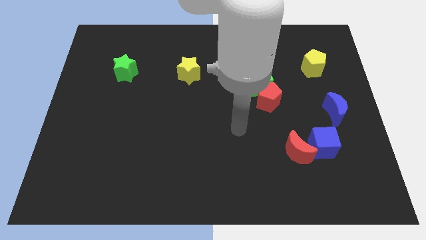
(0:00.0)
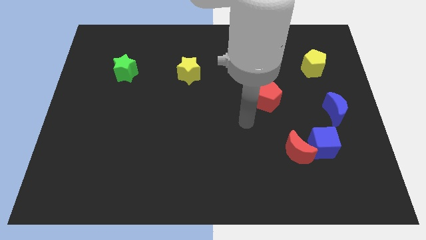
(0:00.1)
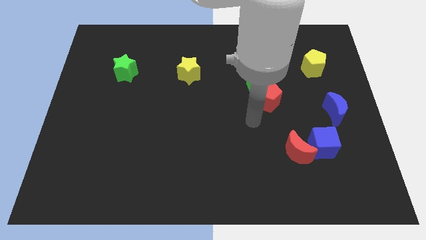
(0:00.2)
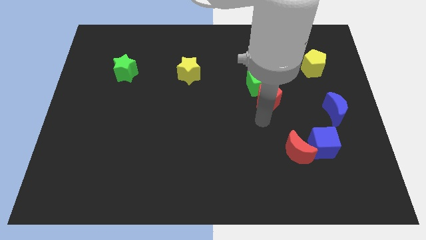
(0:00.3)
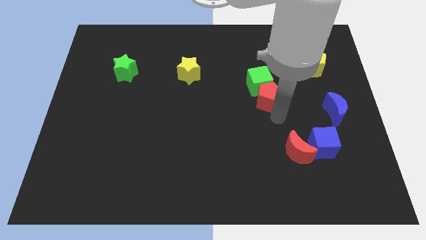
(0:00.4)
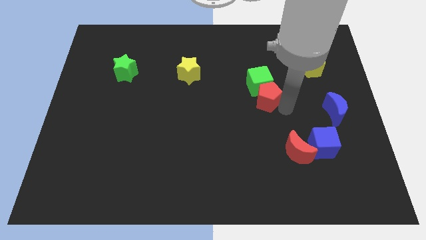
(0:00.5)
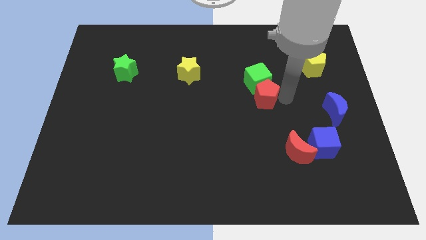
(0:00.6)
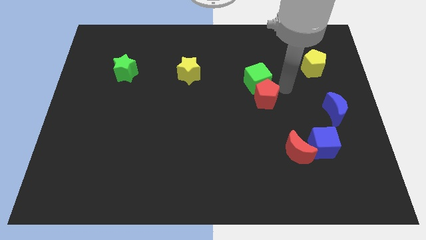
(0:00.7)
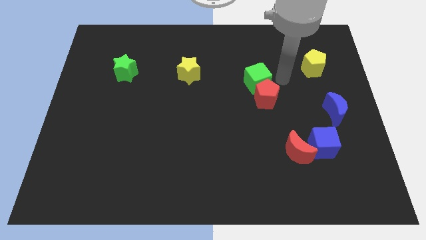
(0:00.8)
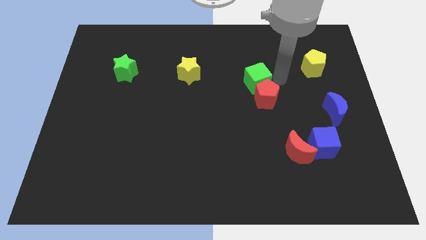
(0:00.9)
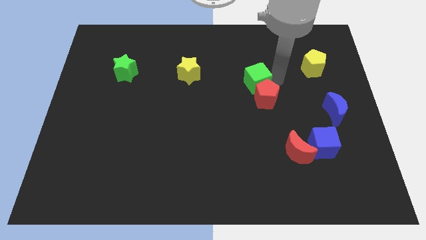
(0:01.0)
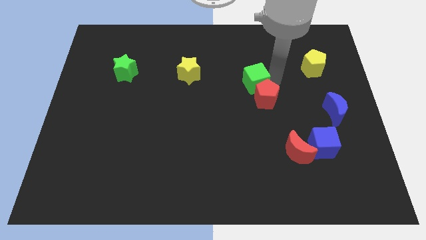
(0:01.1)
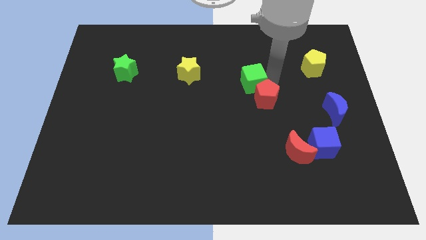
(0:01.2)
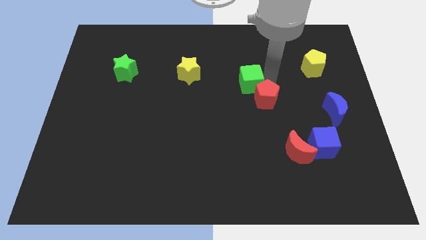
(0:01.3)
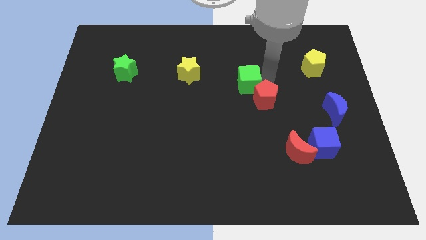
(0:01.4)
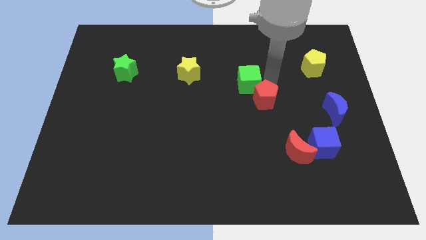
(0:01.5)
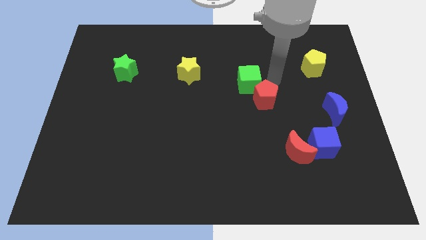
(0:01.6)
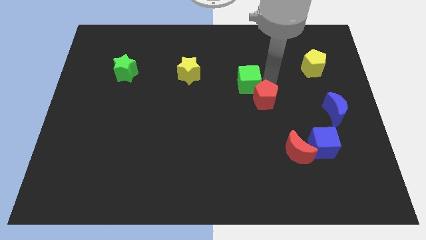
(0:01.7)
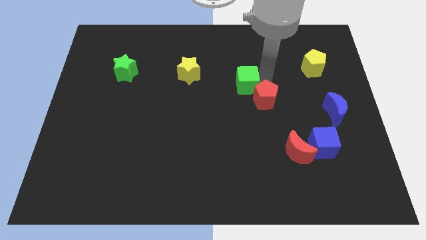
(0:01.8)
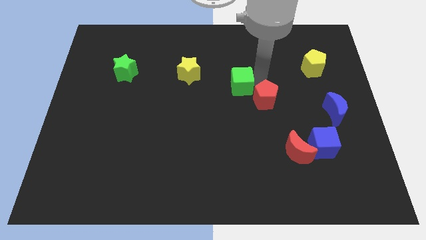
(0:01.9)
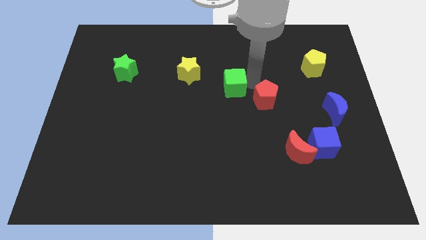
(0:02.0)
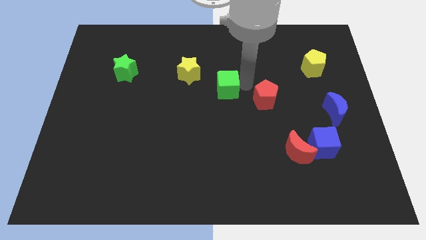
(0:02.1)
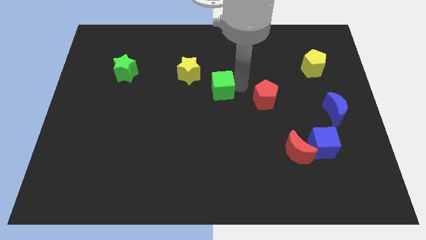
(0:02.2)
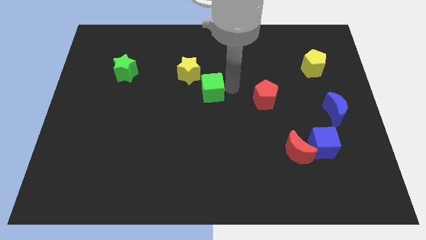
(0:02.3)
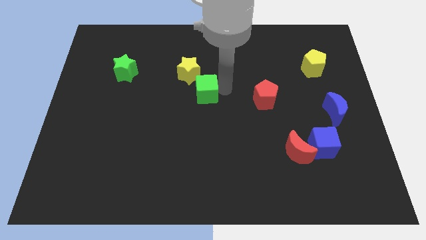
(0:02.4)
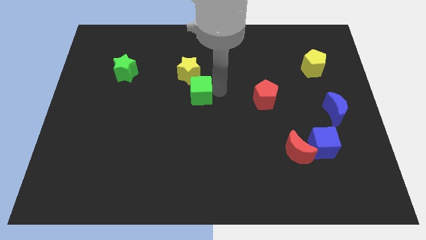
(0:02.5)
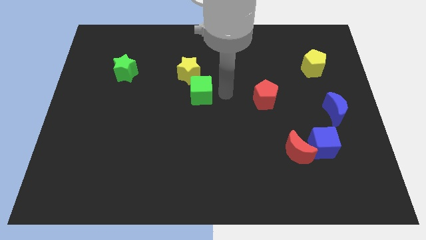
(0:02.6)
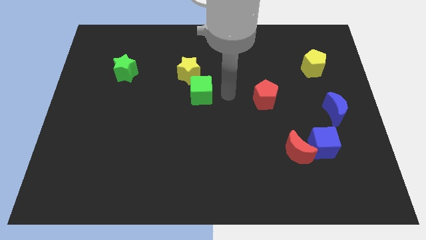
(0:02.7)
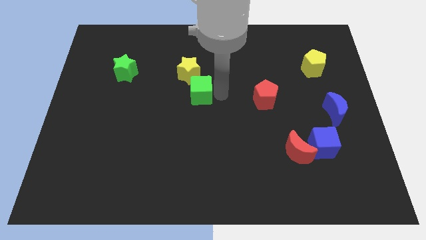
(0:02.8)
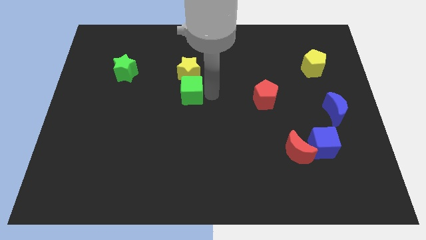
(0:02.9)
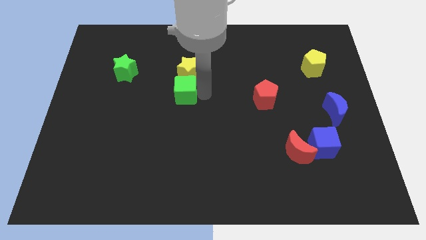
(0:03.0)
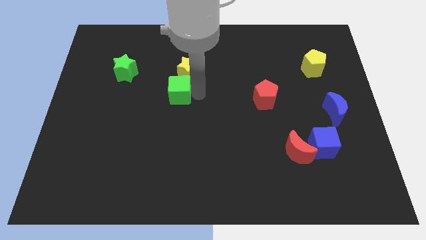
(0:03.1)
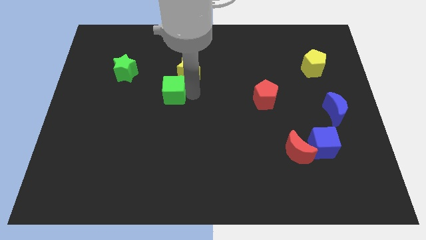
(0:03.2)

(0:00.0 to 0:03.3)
move the green cube to the left

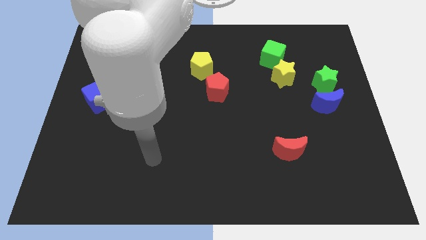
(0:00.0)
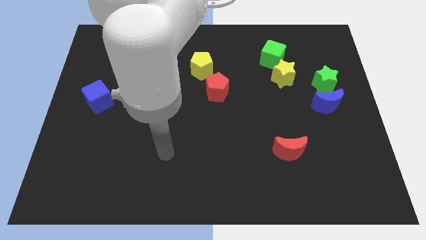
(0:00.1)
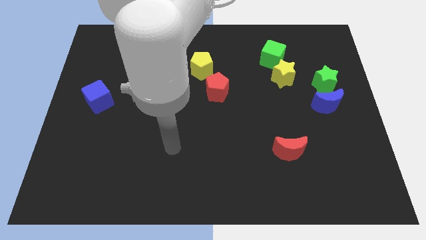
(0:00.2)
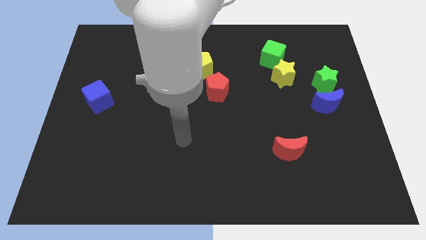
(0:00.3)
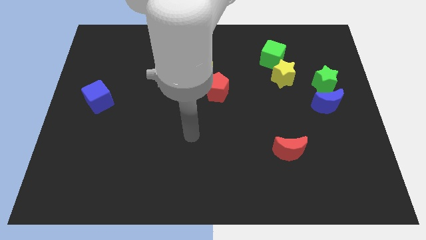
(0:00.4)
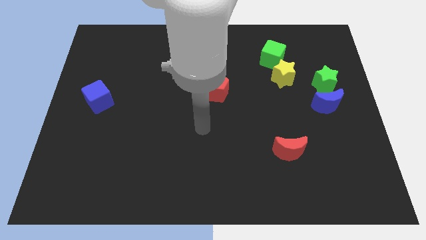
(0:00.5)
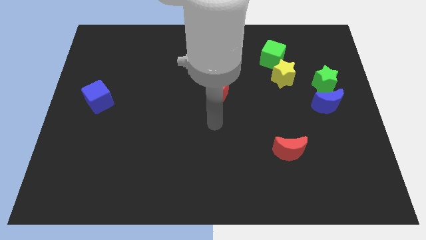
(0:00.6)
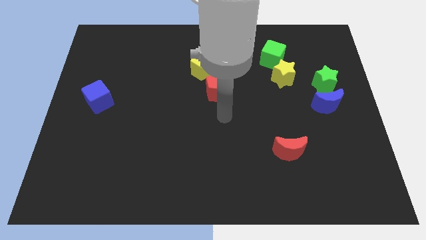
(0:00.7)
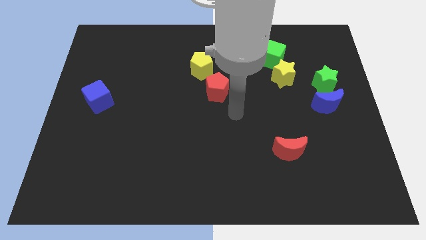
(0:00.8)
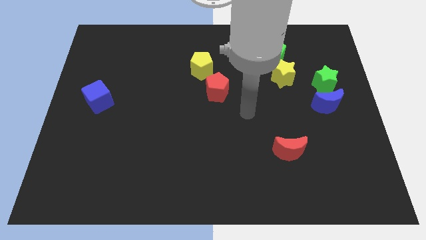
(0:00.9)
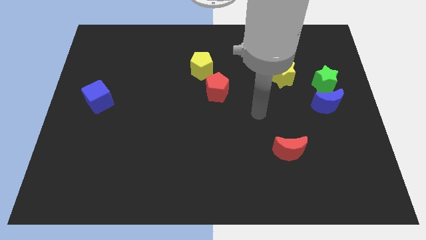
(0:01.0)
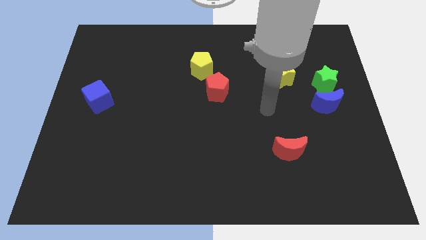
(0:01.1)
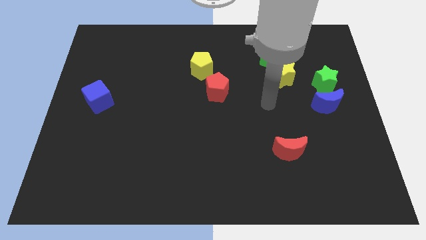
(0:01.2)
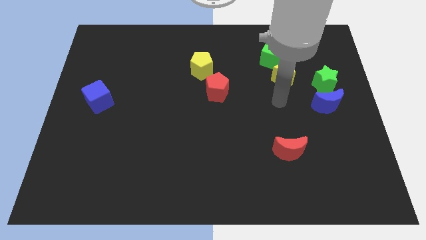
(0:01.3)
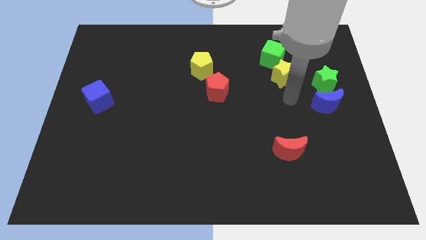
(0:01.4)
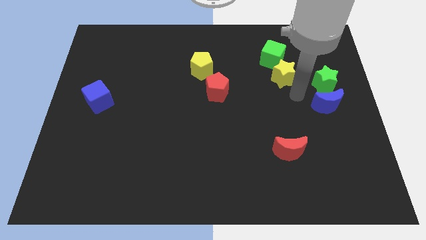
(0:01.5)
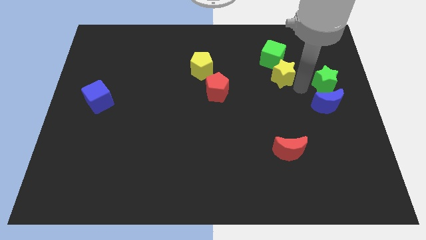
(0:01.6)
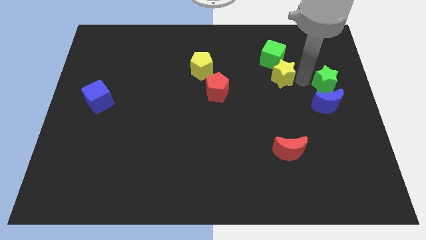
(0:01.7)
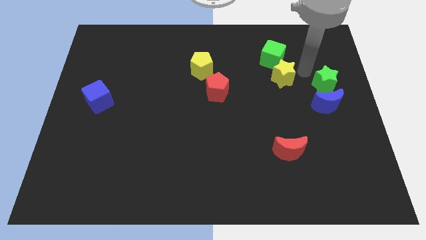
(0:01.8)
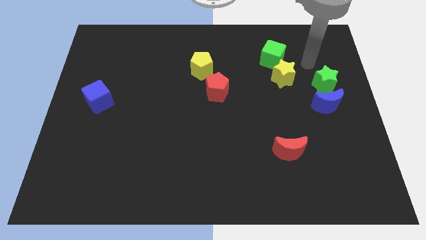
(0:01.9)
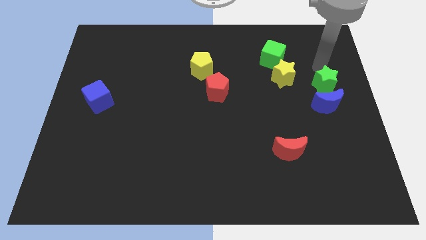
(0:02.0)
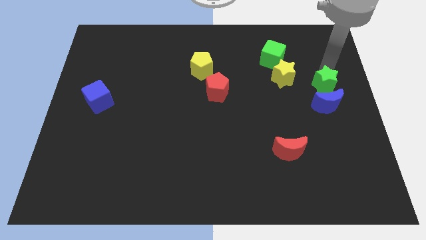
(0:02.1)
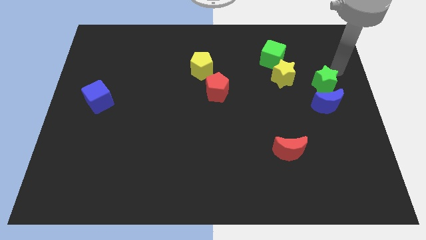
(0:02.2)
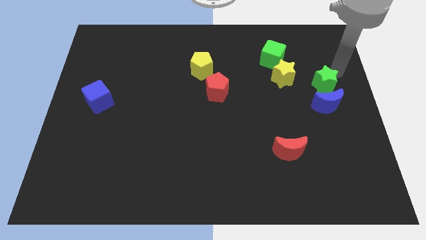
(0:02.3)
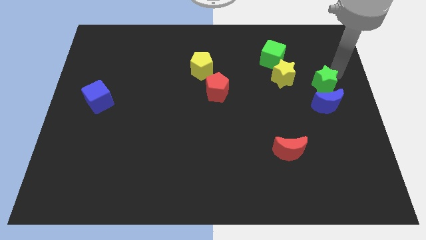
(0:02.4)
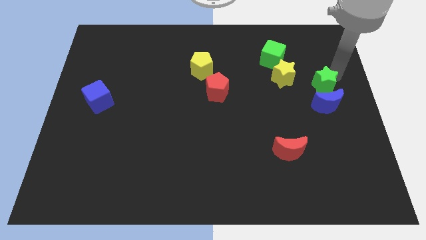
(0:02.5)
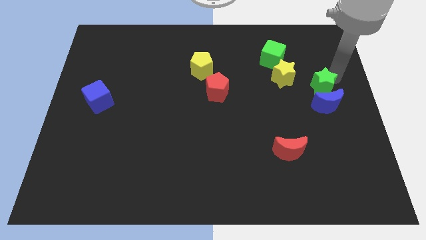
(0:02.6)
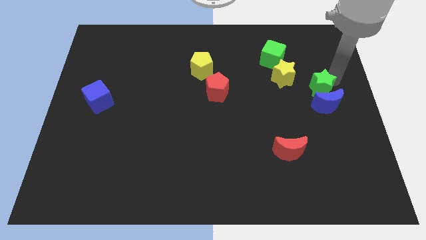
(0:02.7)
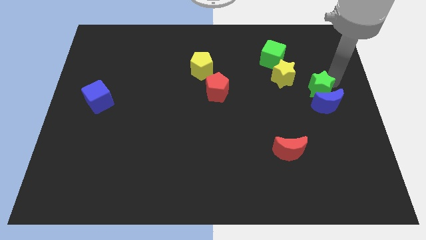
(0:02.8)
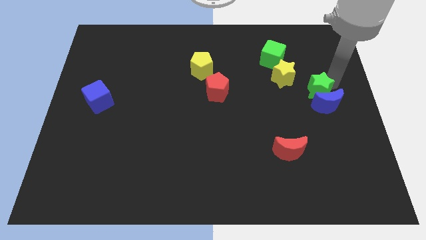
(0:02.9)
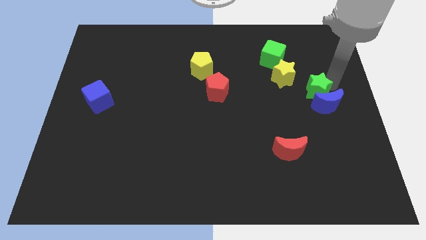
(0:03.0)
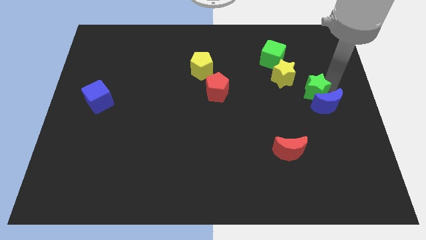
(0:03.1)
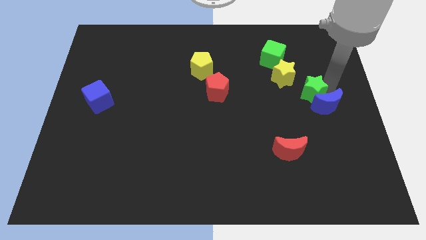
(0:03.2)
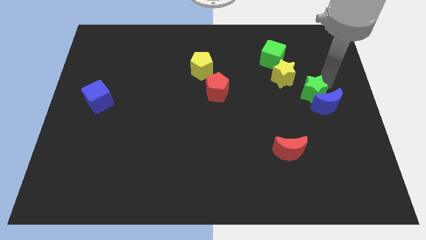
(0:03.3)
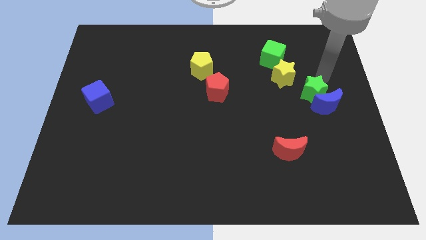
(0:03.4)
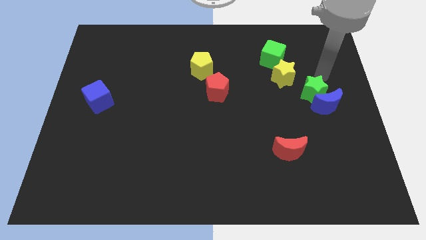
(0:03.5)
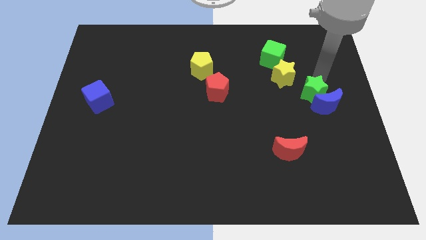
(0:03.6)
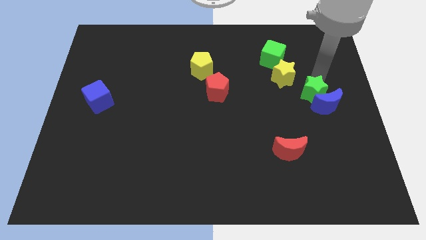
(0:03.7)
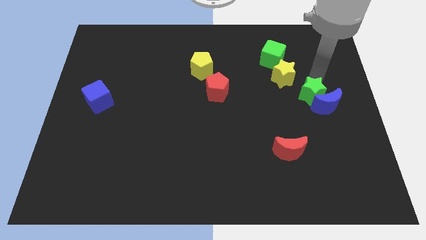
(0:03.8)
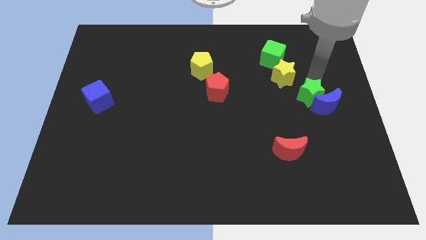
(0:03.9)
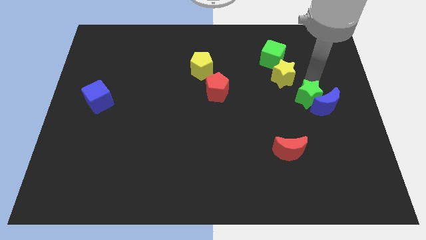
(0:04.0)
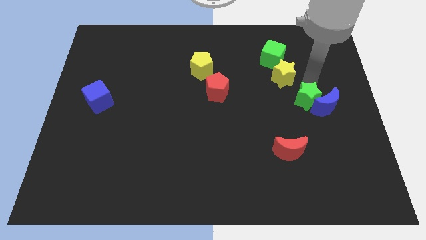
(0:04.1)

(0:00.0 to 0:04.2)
push the green star diagonally down and left a bit

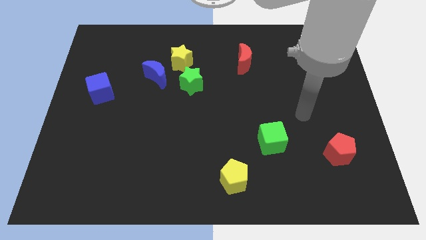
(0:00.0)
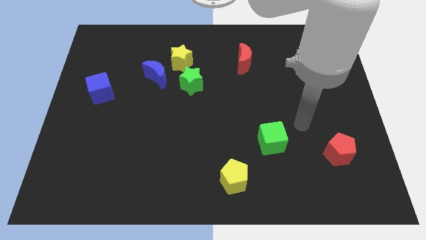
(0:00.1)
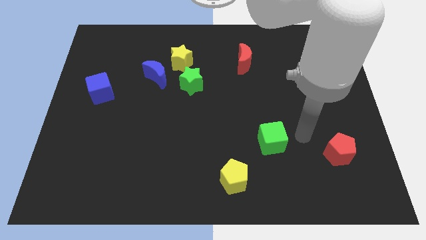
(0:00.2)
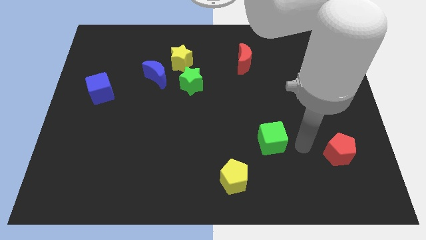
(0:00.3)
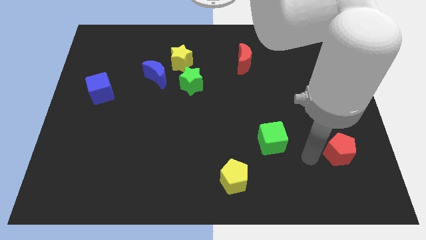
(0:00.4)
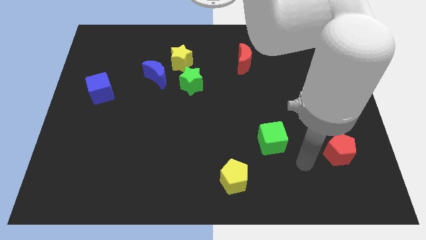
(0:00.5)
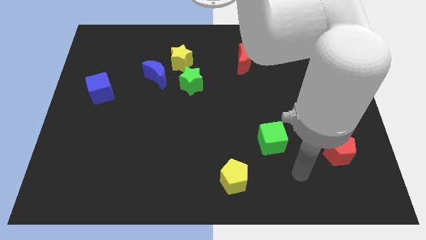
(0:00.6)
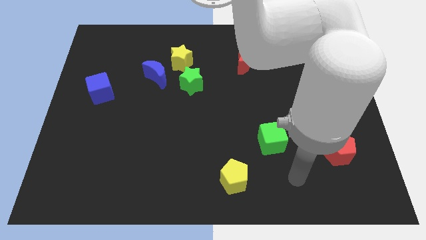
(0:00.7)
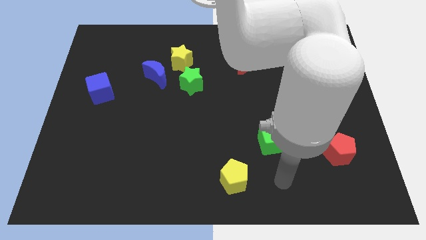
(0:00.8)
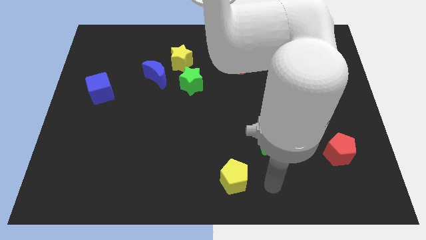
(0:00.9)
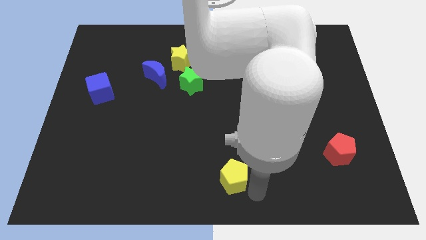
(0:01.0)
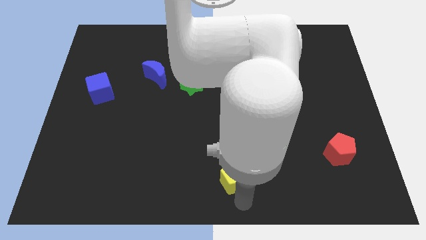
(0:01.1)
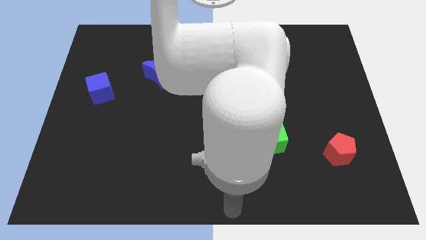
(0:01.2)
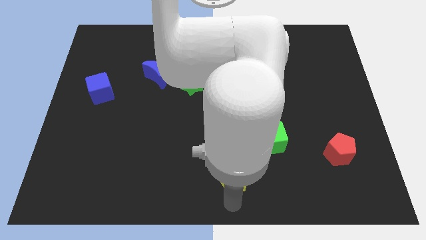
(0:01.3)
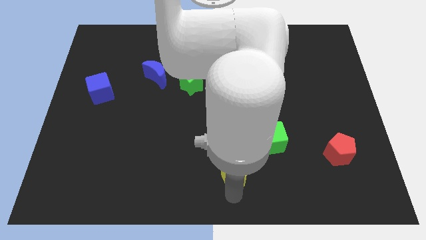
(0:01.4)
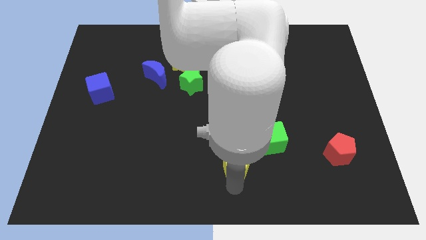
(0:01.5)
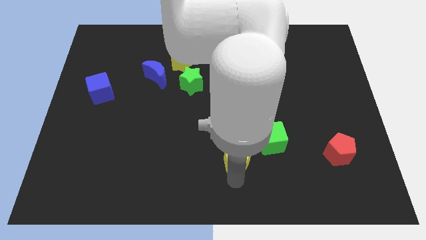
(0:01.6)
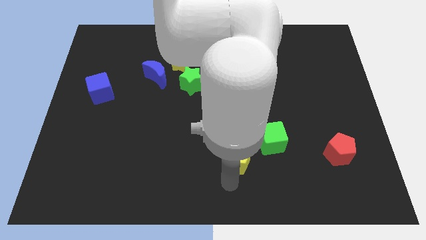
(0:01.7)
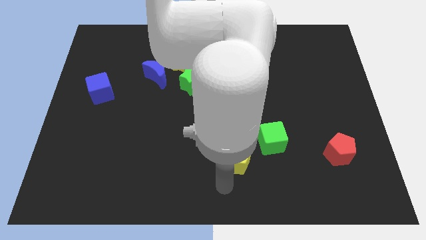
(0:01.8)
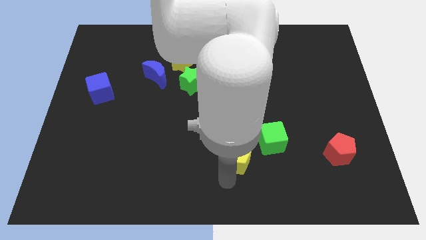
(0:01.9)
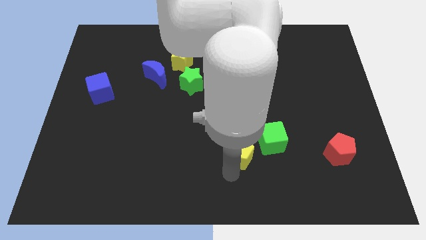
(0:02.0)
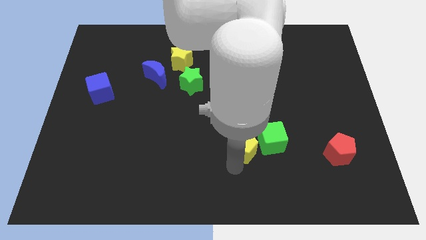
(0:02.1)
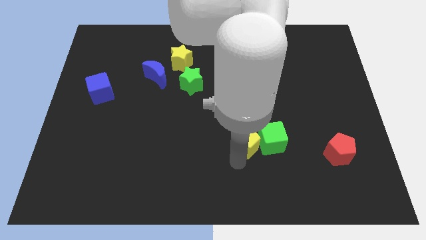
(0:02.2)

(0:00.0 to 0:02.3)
move the yellow pentagon somewhat diagonally up and right
